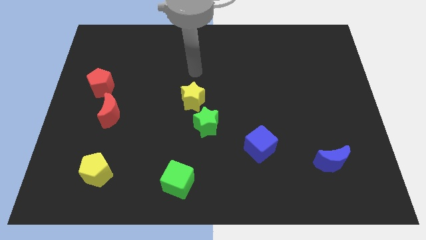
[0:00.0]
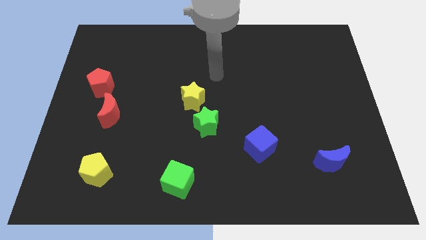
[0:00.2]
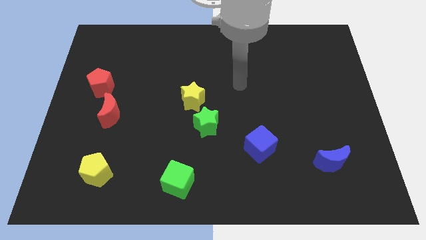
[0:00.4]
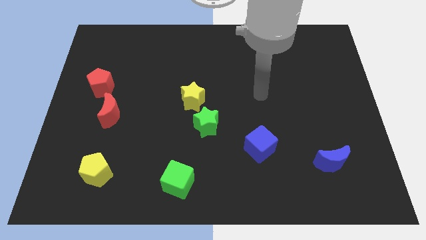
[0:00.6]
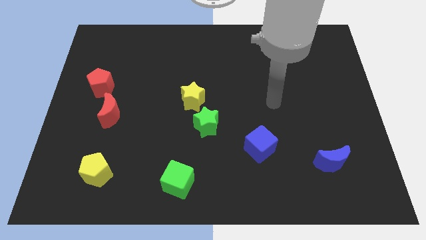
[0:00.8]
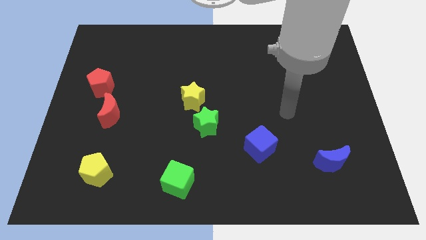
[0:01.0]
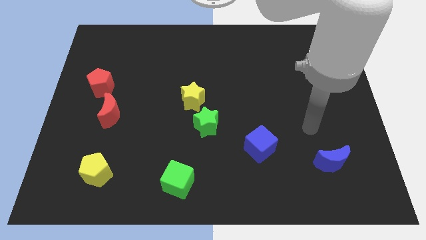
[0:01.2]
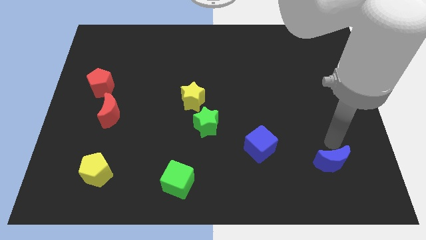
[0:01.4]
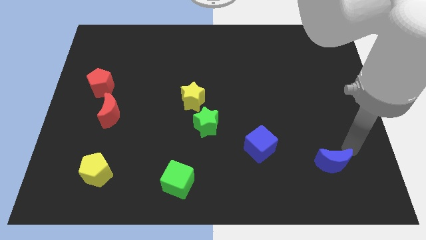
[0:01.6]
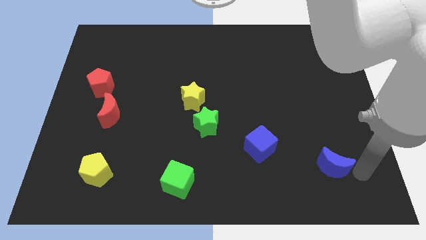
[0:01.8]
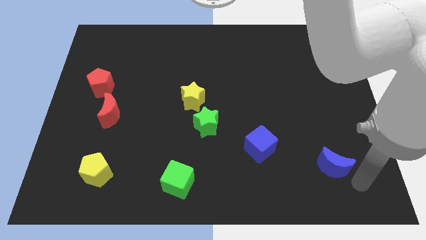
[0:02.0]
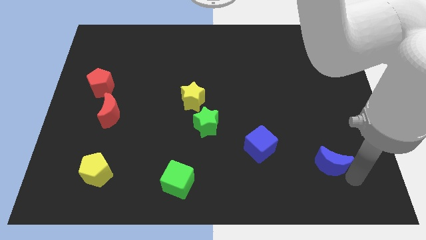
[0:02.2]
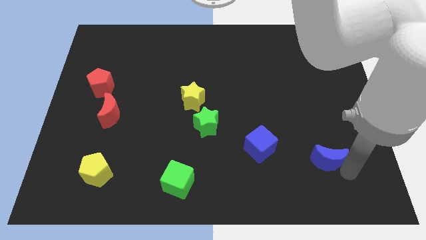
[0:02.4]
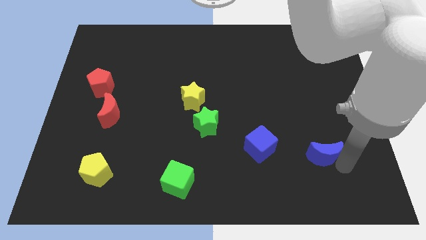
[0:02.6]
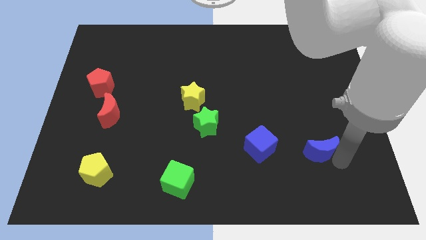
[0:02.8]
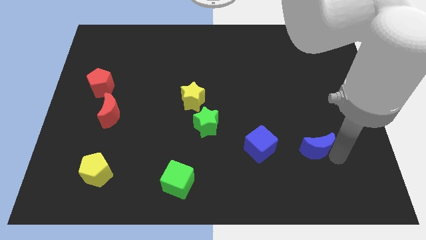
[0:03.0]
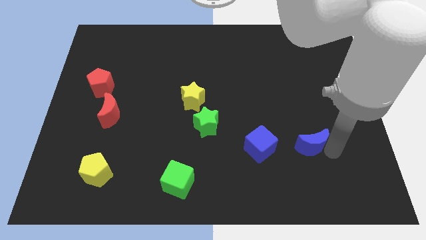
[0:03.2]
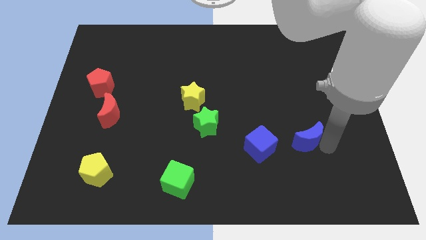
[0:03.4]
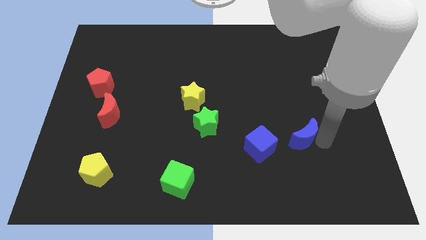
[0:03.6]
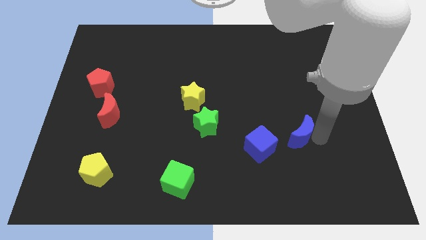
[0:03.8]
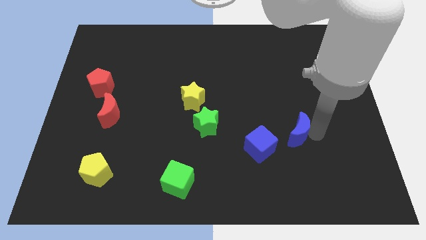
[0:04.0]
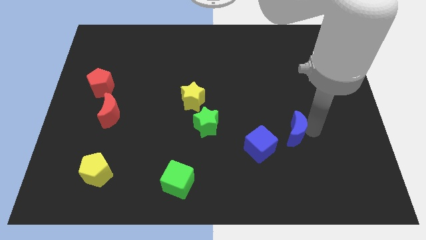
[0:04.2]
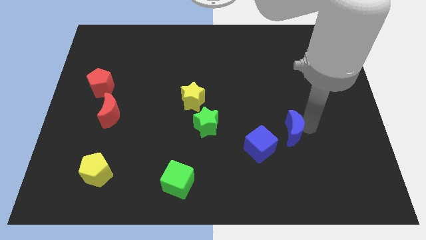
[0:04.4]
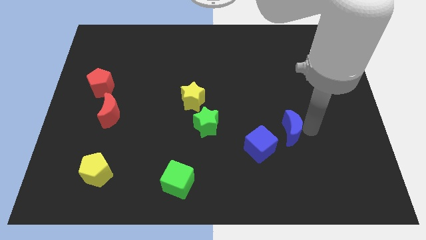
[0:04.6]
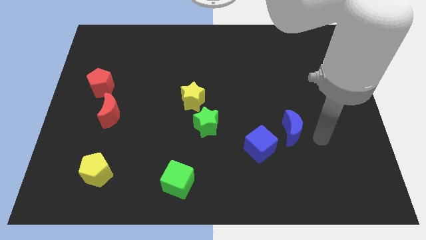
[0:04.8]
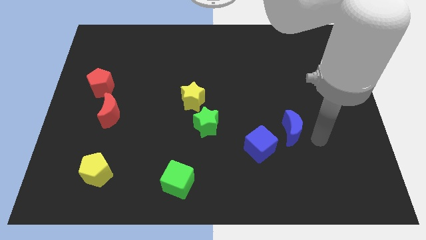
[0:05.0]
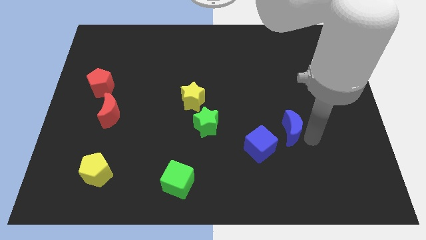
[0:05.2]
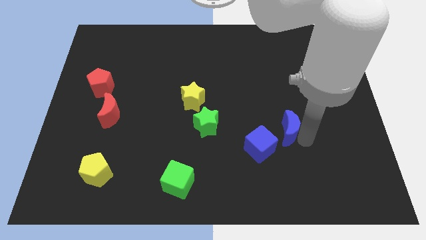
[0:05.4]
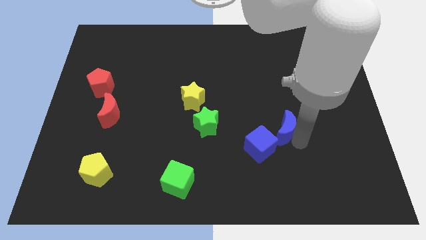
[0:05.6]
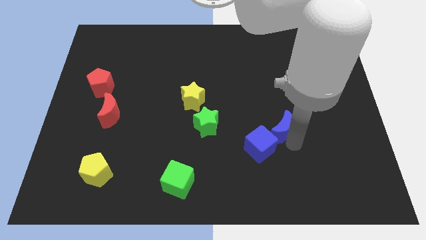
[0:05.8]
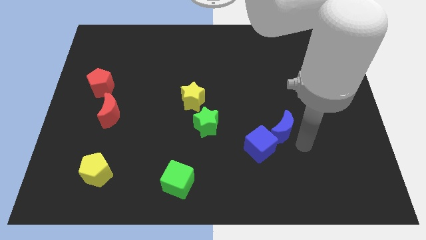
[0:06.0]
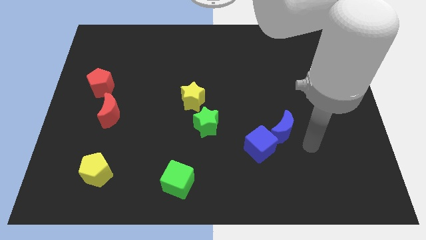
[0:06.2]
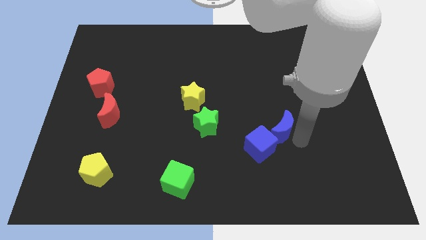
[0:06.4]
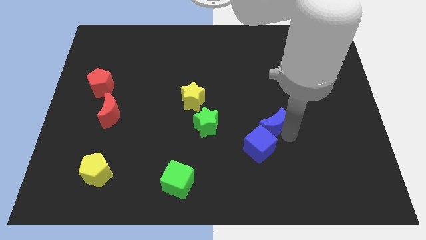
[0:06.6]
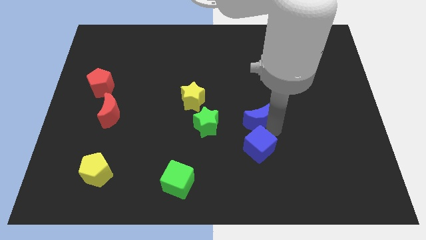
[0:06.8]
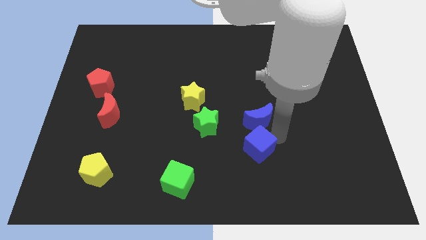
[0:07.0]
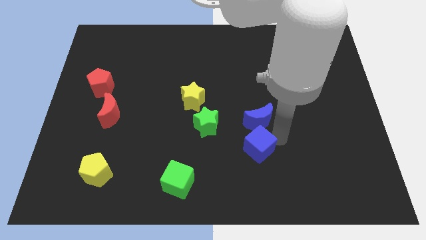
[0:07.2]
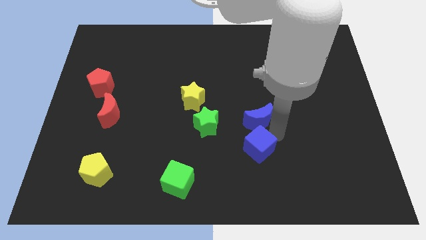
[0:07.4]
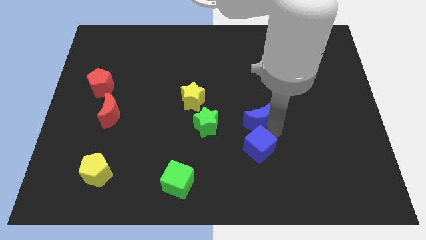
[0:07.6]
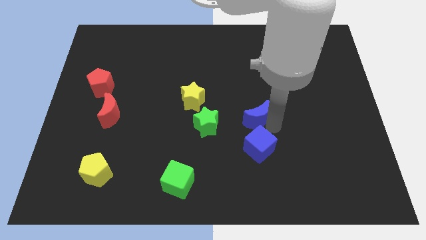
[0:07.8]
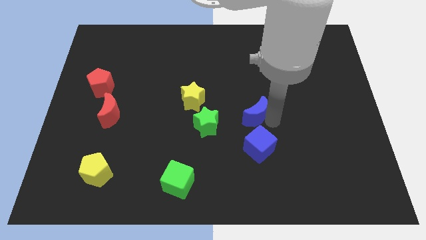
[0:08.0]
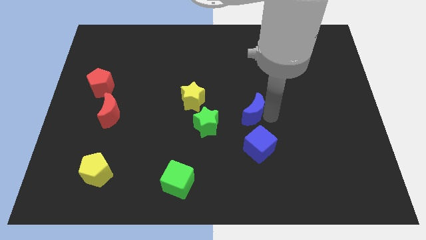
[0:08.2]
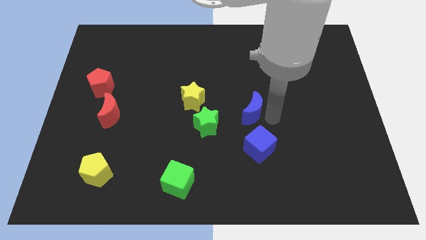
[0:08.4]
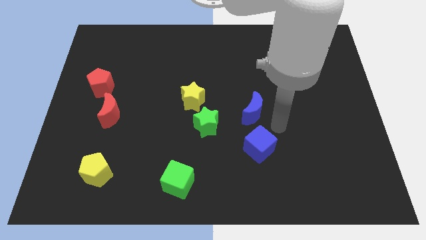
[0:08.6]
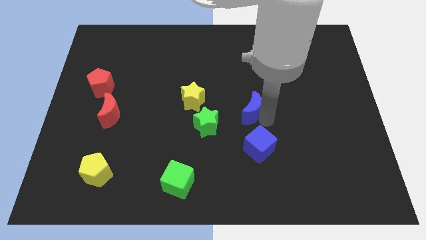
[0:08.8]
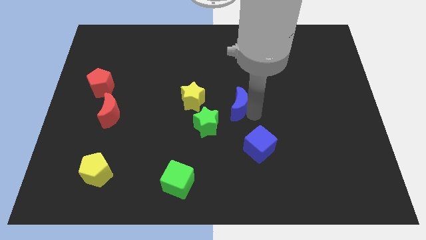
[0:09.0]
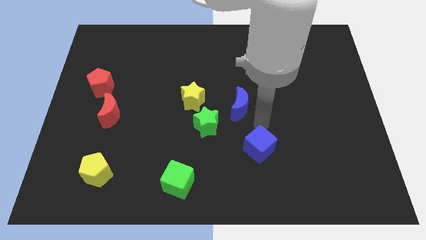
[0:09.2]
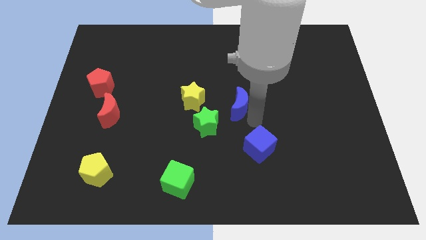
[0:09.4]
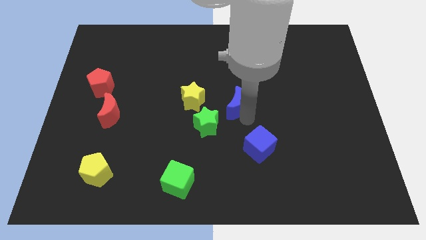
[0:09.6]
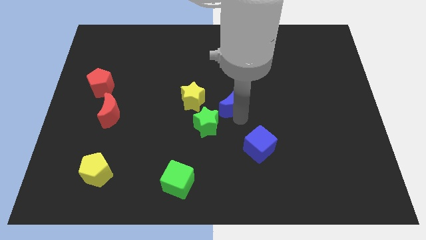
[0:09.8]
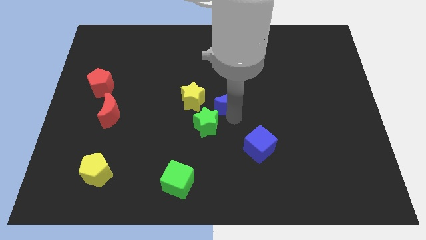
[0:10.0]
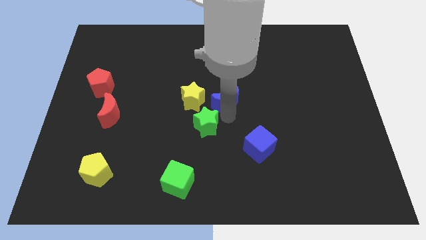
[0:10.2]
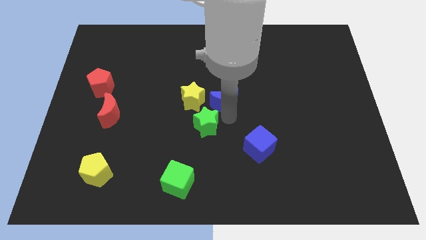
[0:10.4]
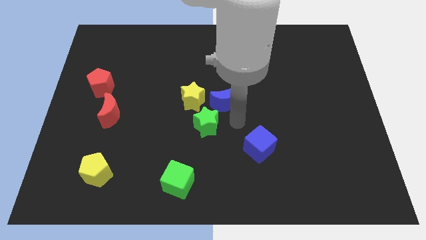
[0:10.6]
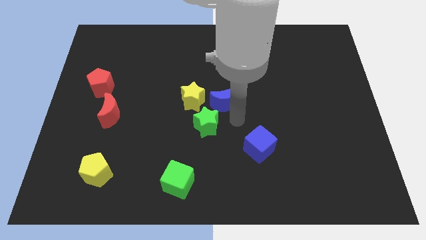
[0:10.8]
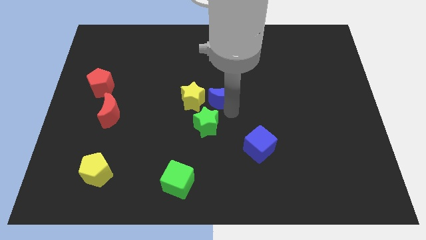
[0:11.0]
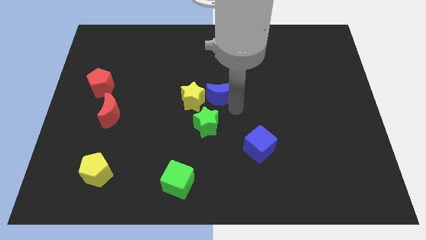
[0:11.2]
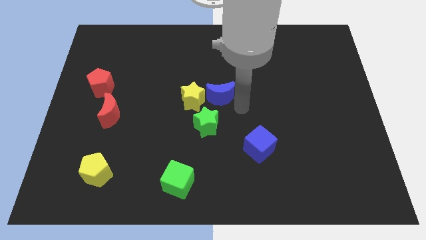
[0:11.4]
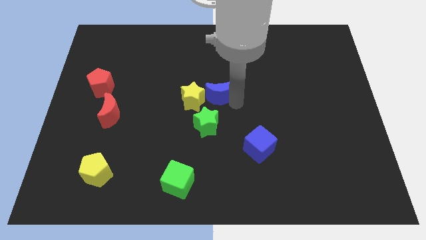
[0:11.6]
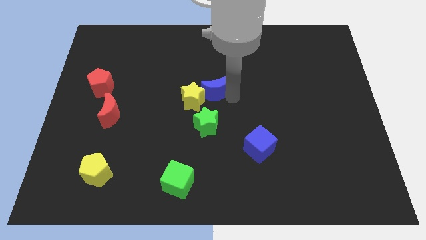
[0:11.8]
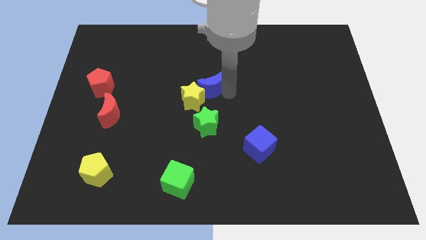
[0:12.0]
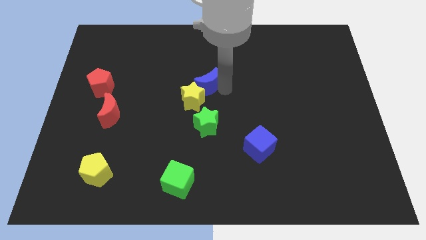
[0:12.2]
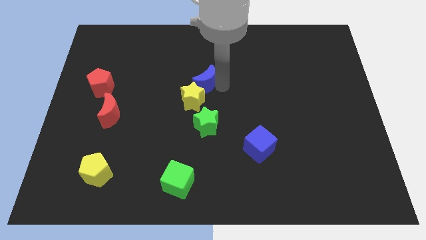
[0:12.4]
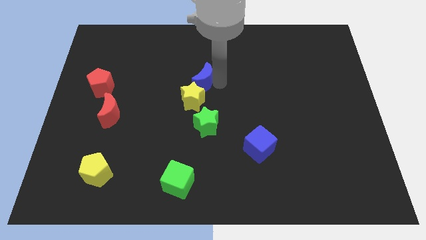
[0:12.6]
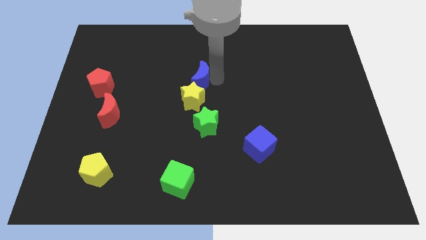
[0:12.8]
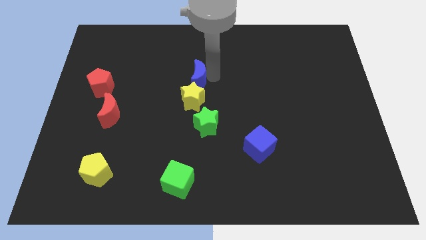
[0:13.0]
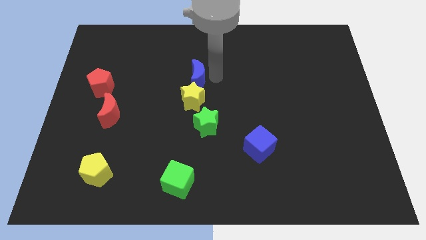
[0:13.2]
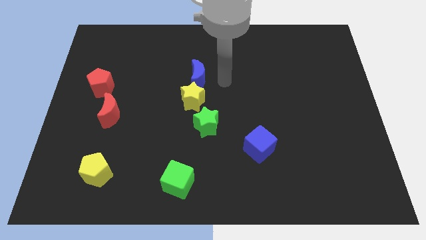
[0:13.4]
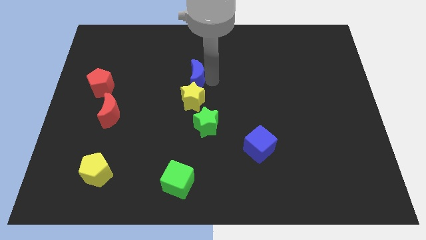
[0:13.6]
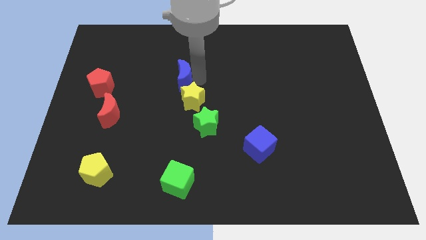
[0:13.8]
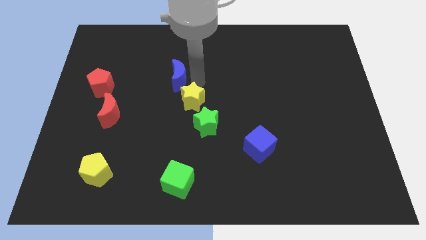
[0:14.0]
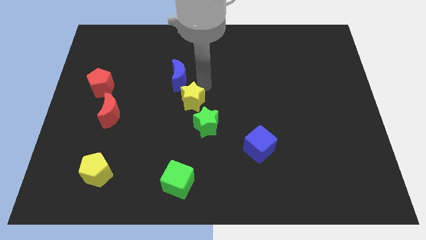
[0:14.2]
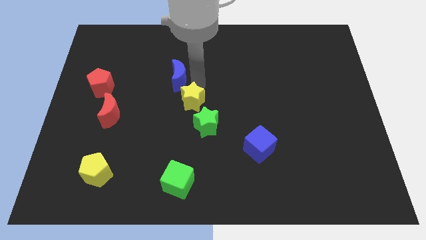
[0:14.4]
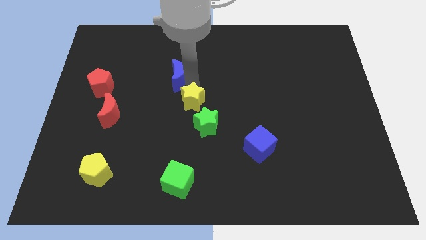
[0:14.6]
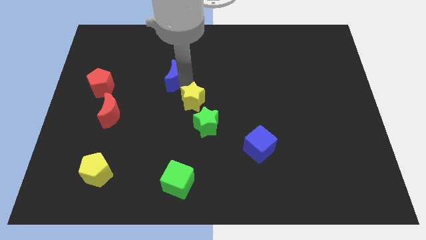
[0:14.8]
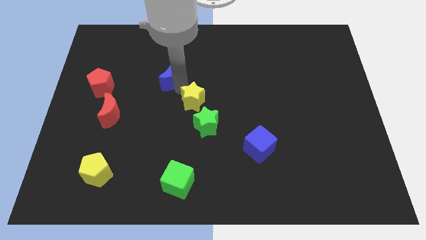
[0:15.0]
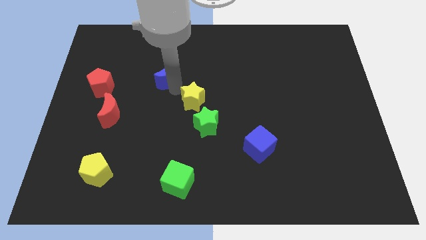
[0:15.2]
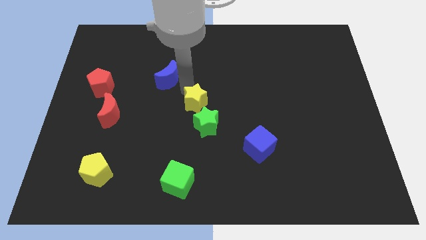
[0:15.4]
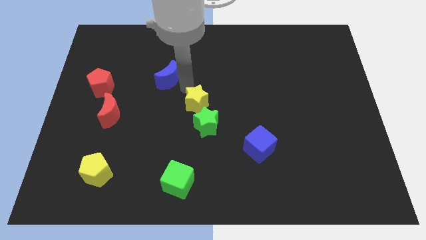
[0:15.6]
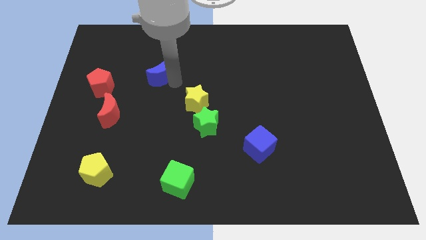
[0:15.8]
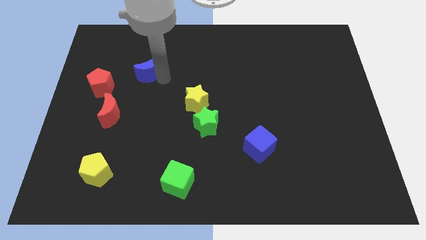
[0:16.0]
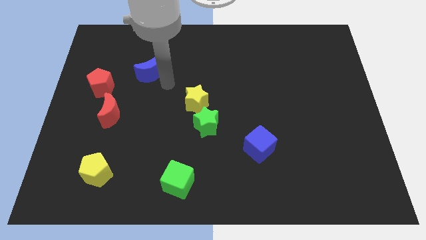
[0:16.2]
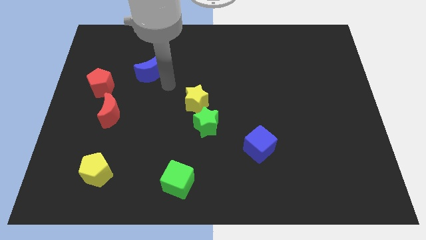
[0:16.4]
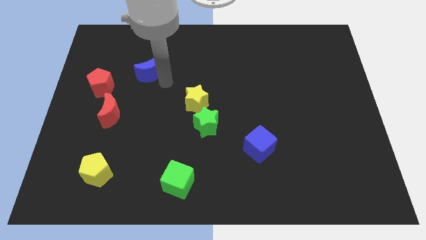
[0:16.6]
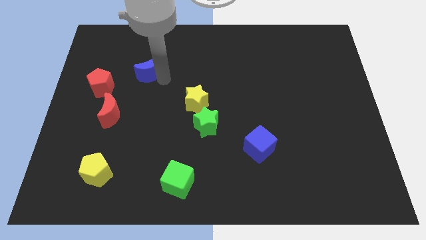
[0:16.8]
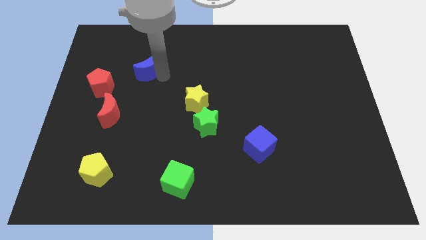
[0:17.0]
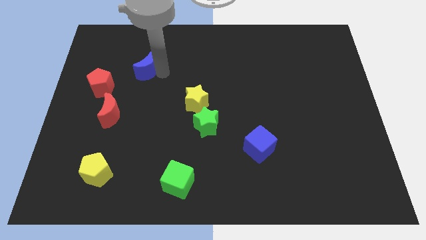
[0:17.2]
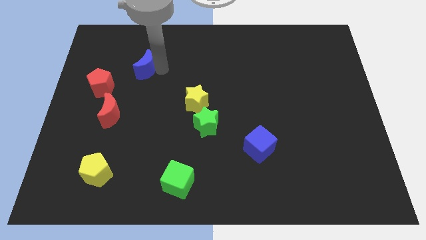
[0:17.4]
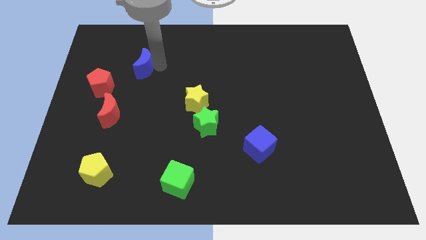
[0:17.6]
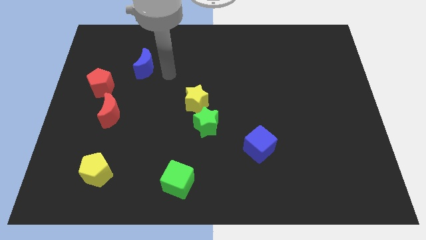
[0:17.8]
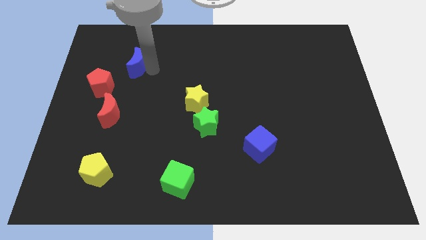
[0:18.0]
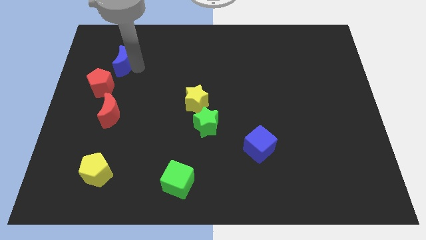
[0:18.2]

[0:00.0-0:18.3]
move the blue moon above the red pentagon
